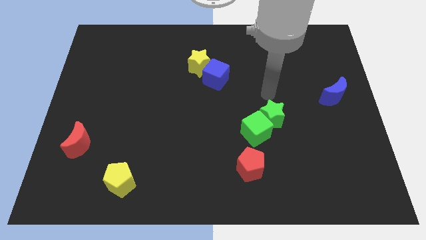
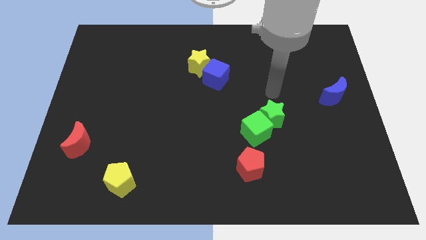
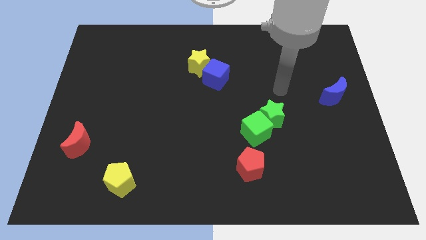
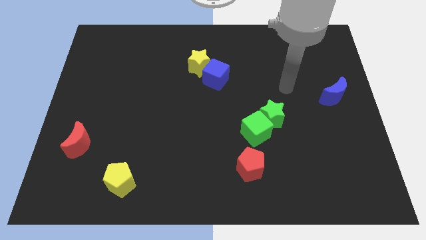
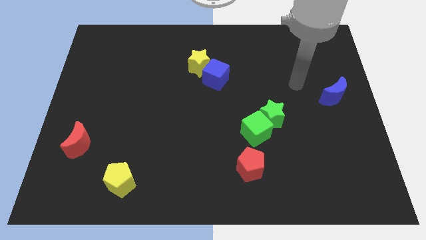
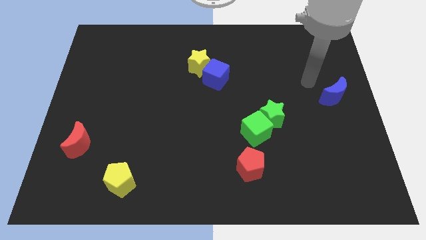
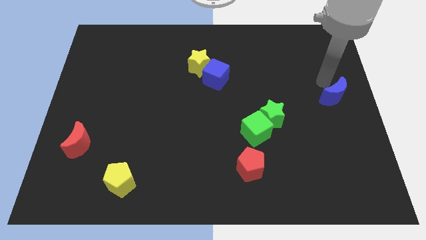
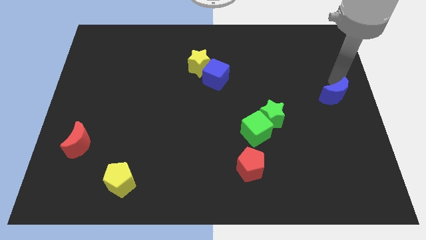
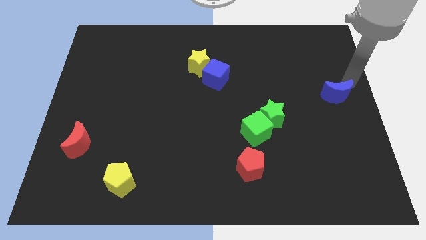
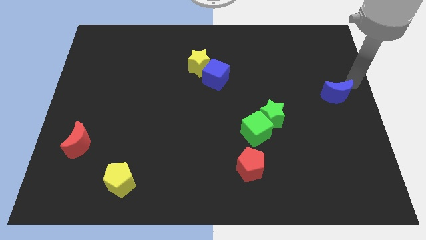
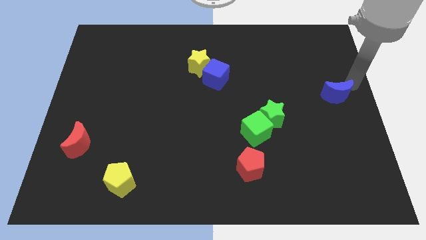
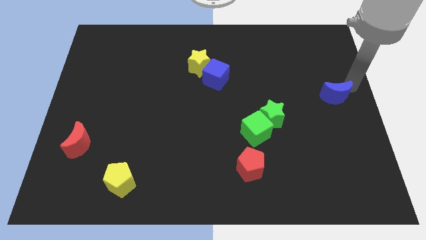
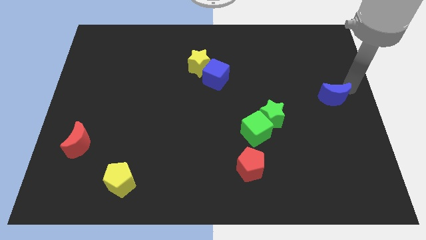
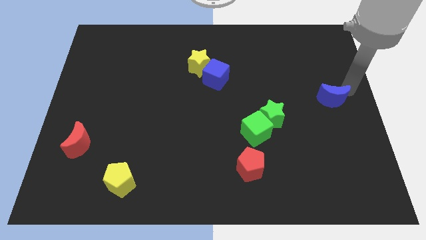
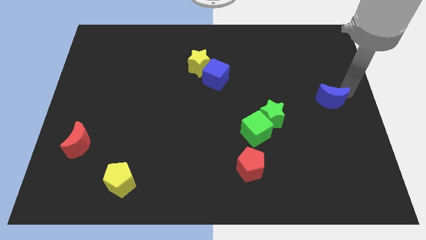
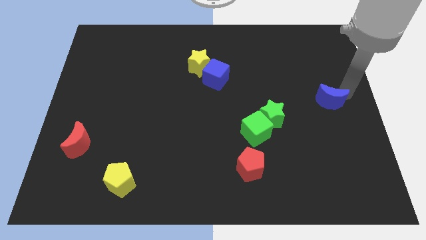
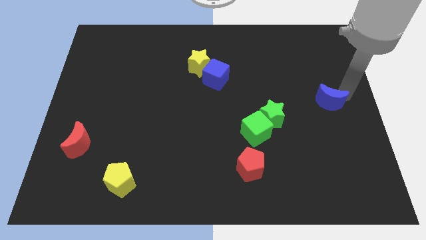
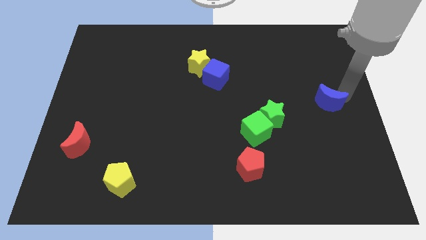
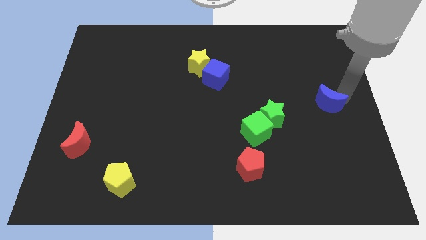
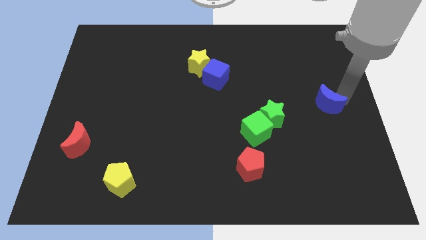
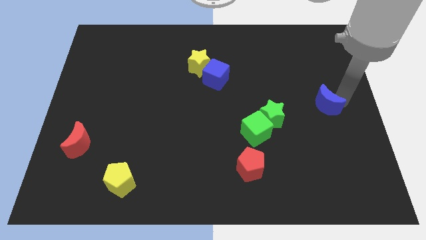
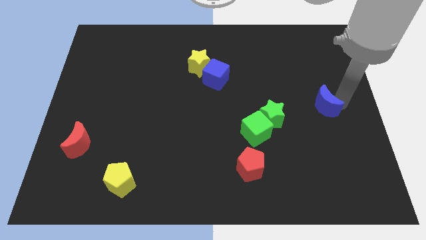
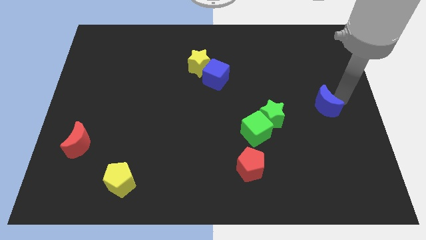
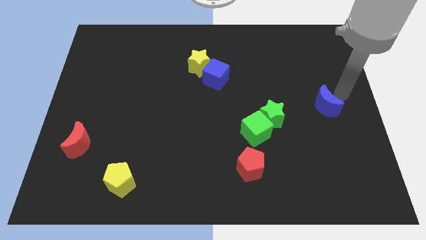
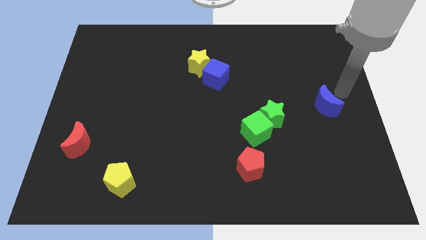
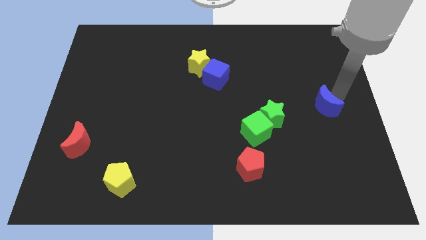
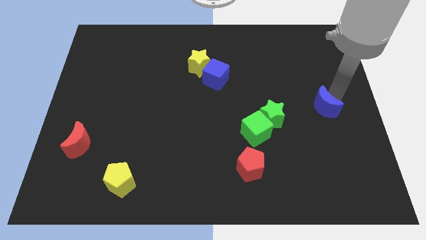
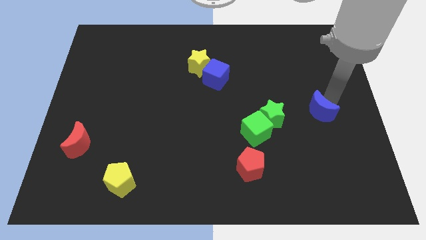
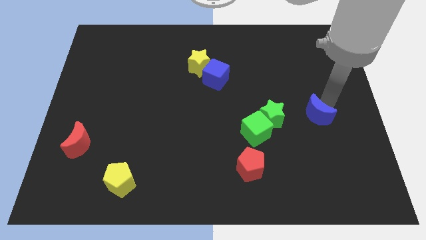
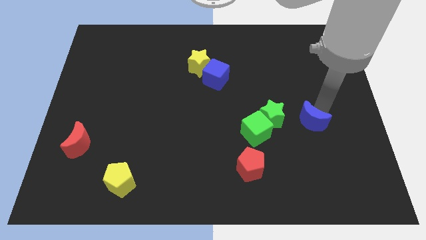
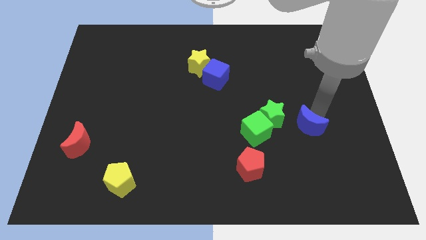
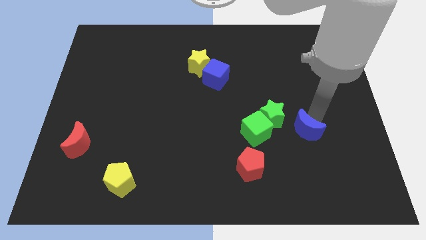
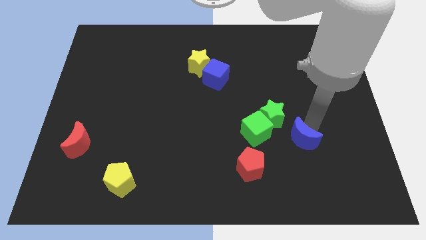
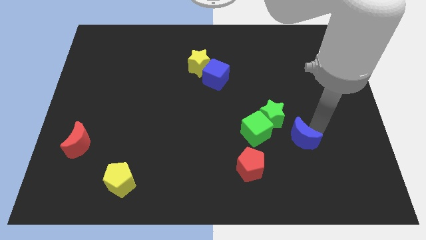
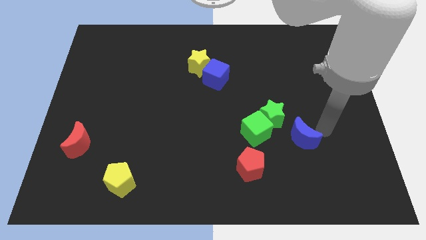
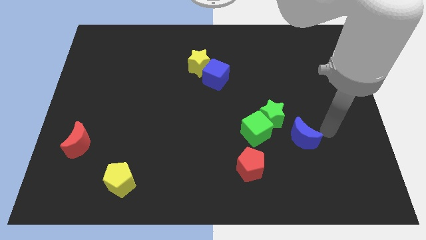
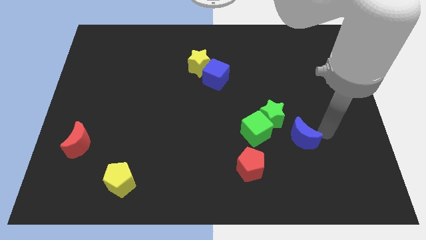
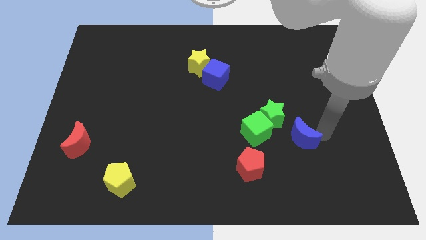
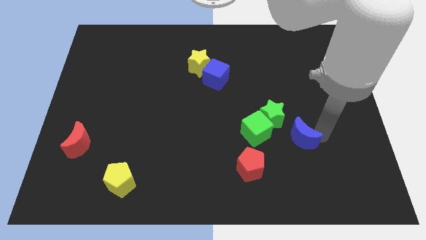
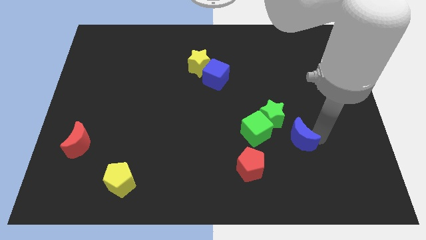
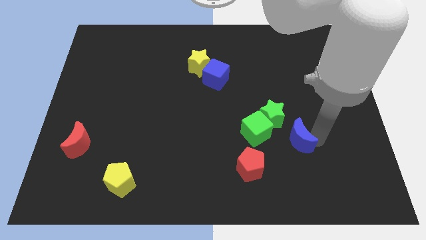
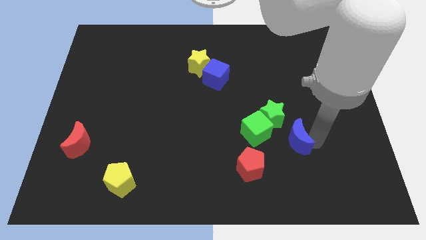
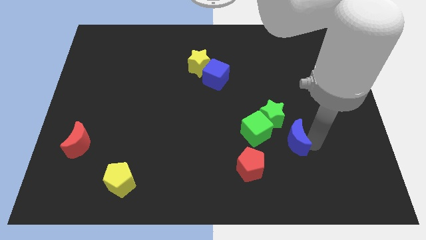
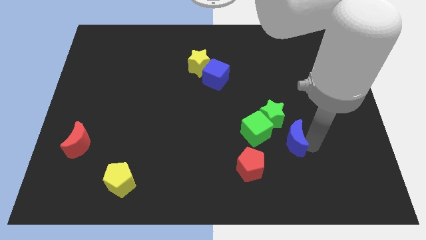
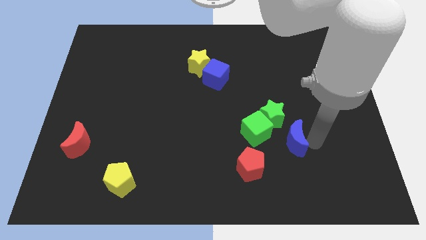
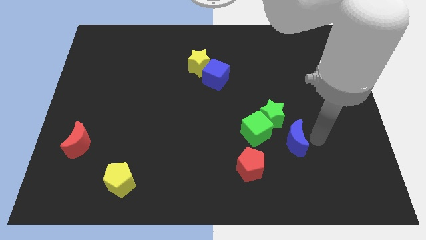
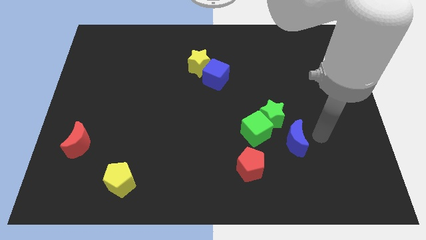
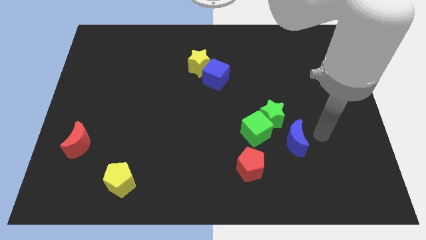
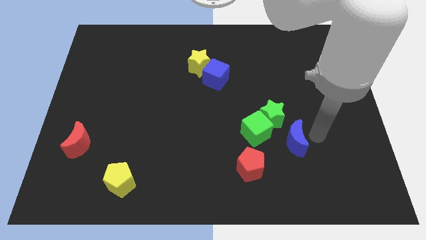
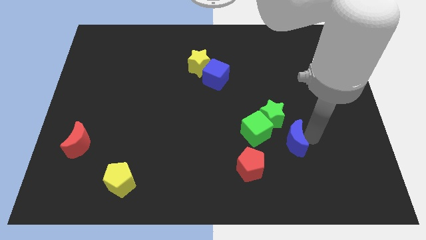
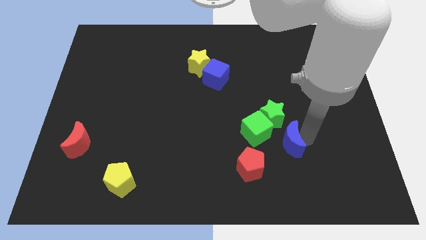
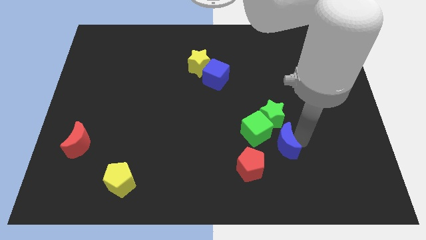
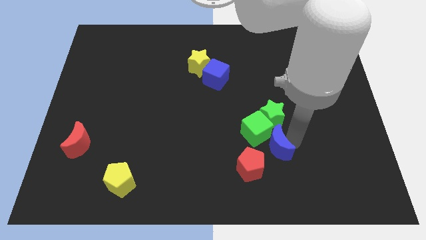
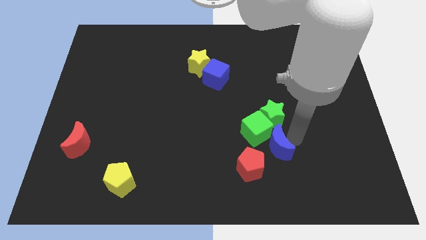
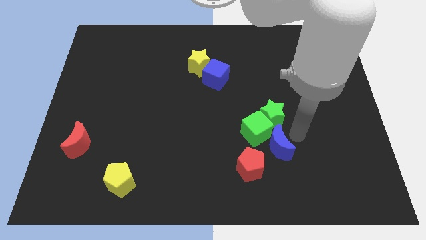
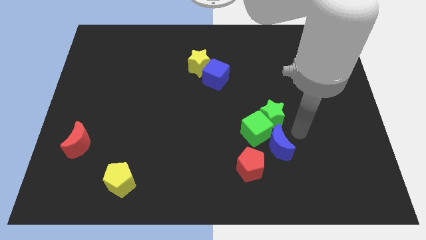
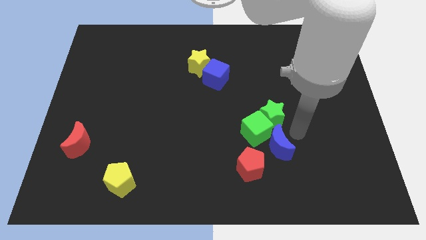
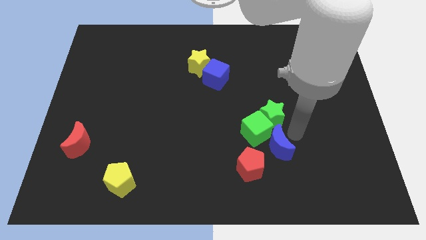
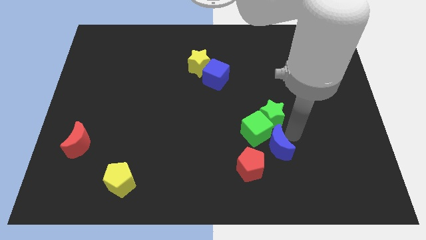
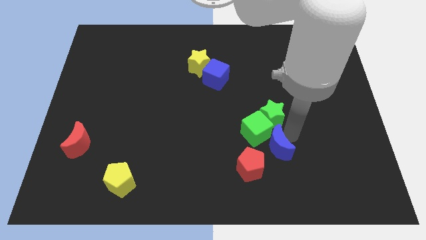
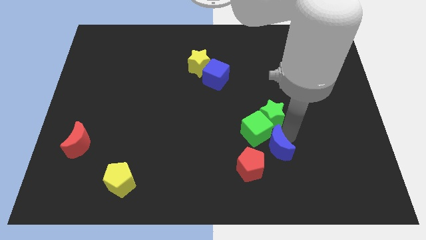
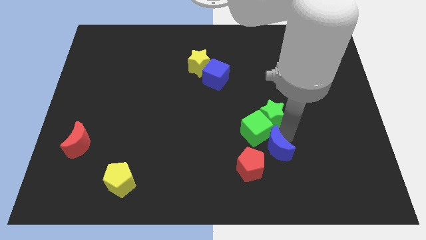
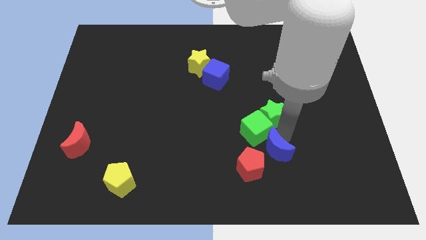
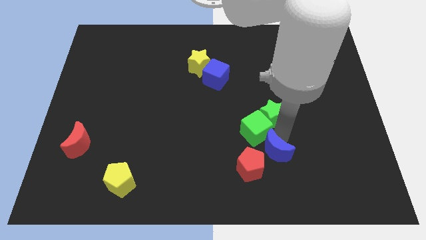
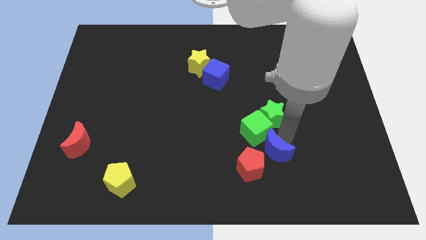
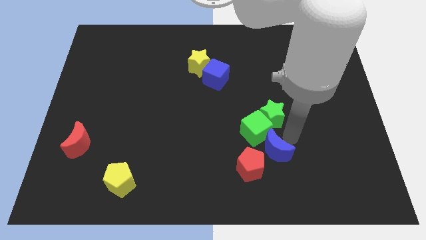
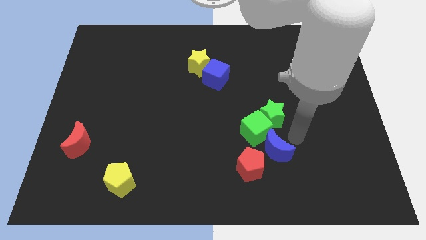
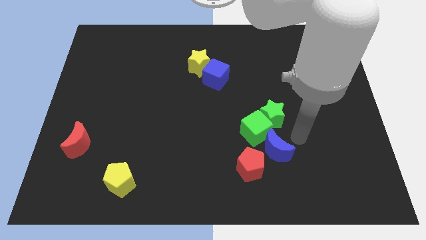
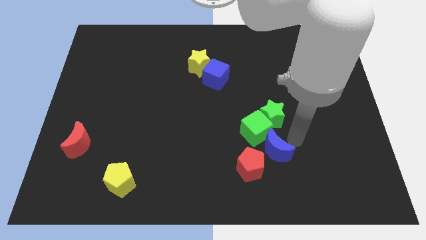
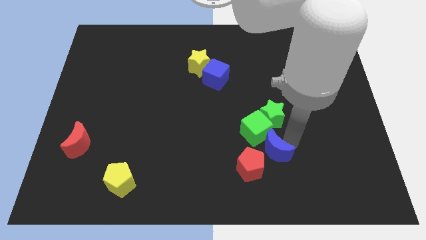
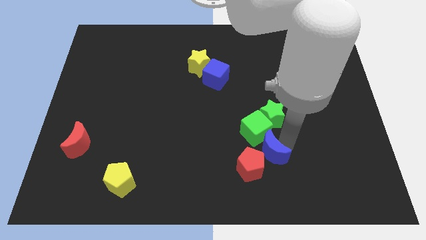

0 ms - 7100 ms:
slide the blue moon towards the red pentagon

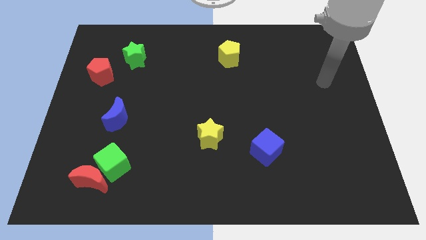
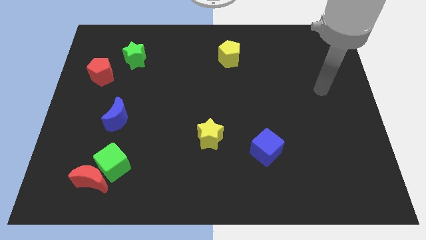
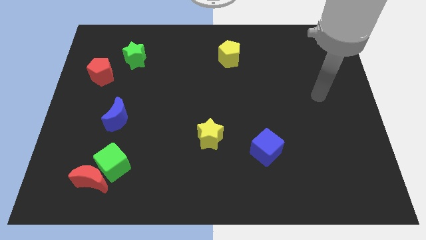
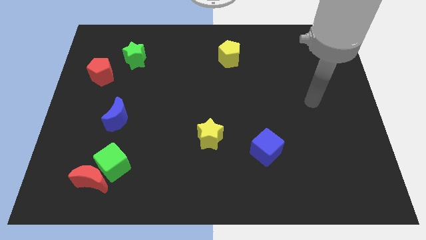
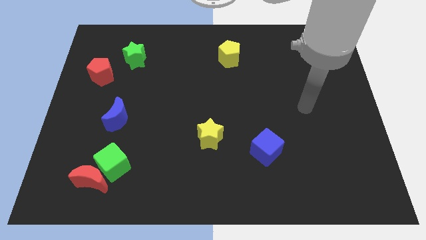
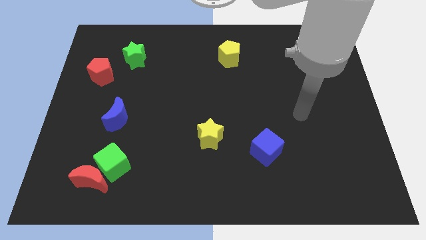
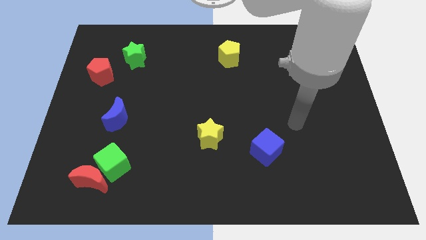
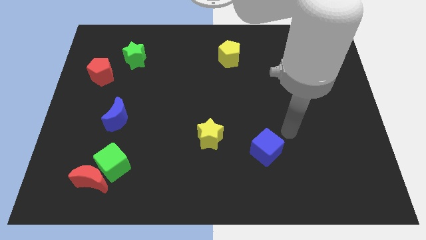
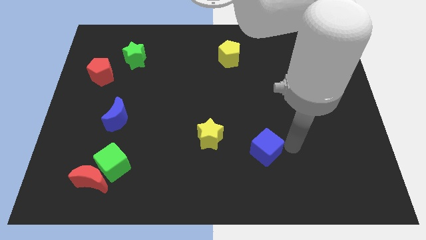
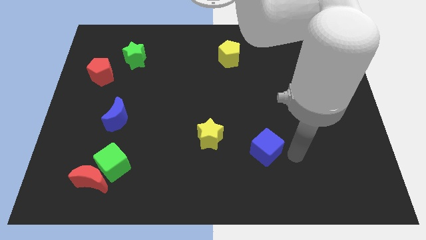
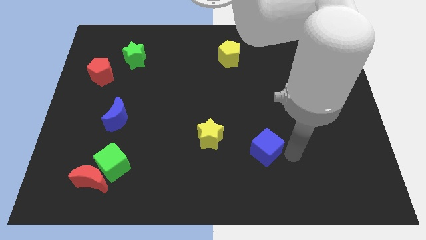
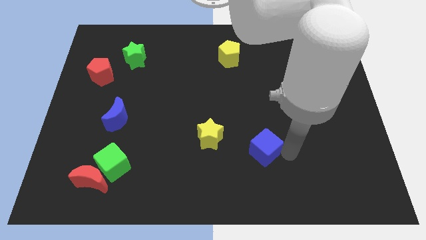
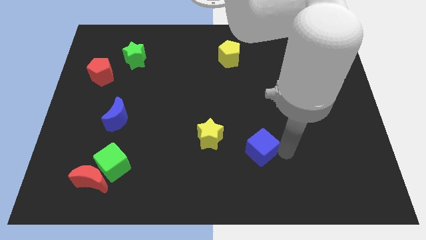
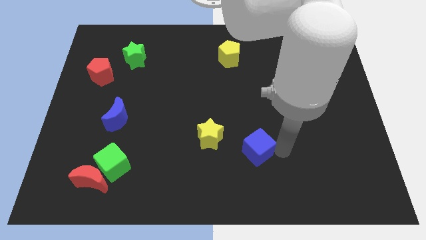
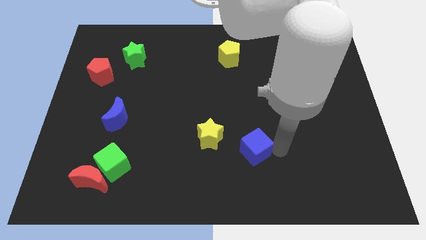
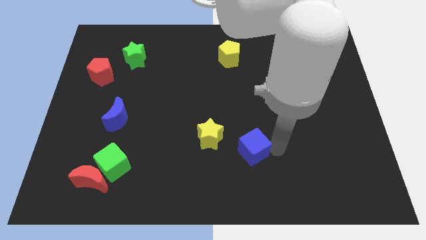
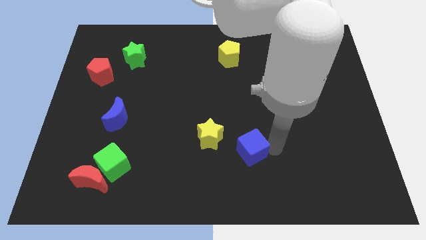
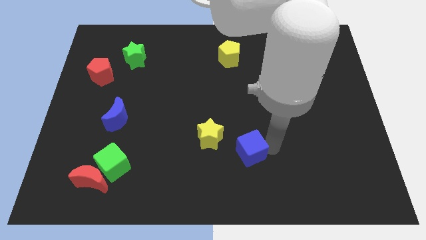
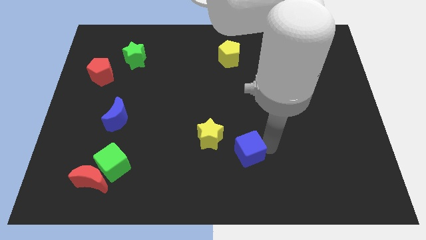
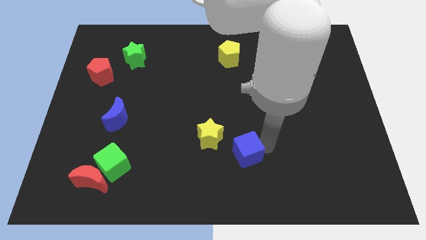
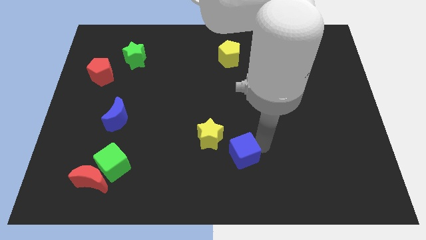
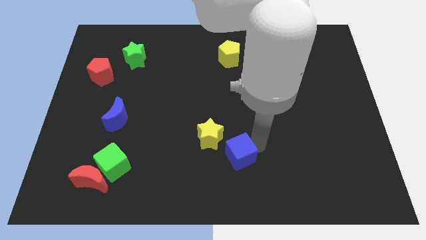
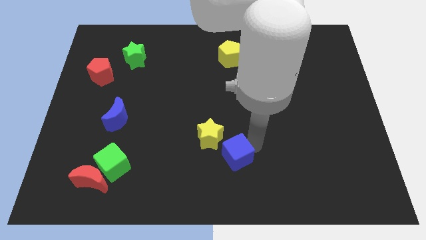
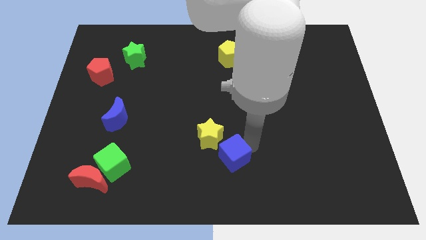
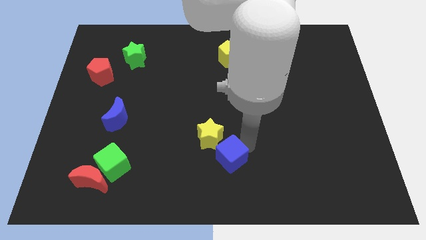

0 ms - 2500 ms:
slide the blue cube to the yellow star
